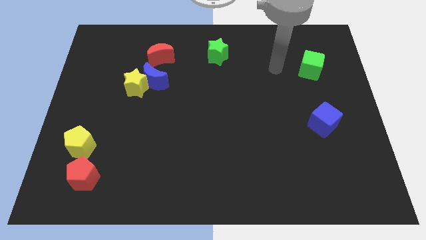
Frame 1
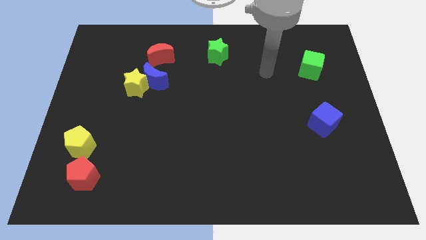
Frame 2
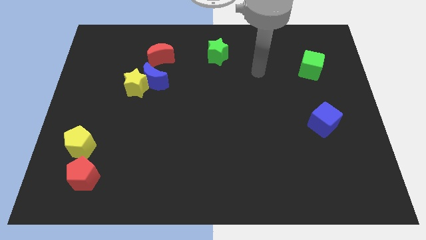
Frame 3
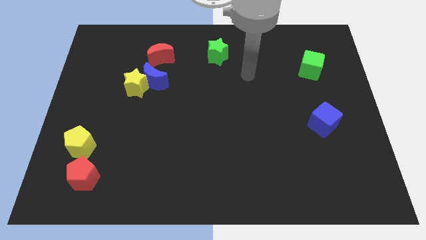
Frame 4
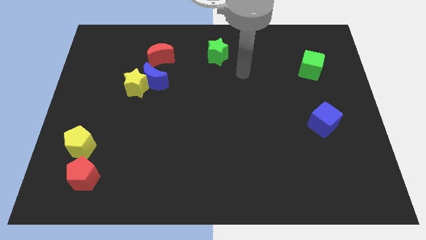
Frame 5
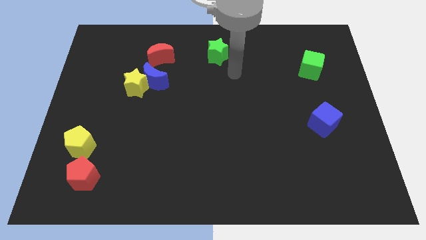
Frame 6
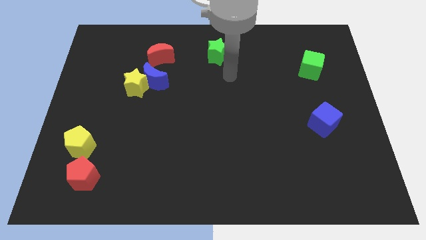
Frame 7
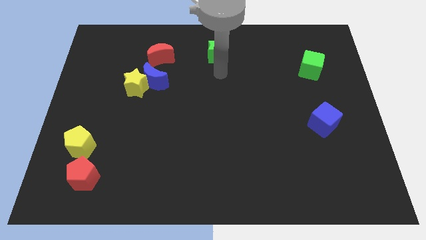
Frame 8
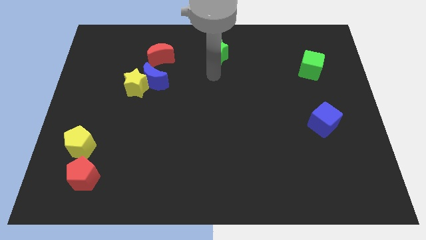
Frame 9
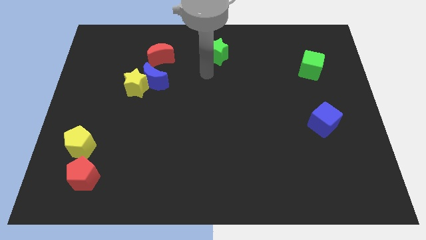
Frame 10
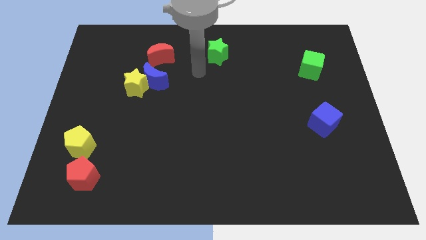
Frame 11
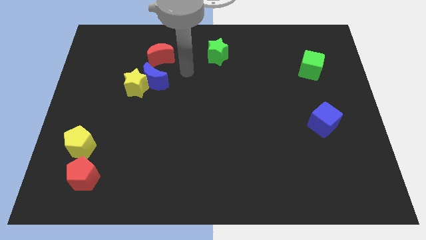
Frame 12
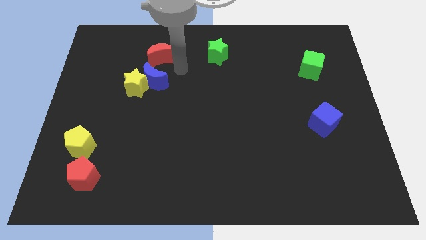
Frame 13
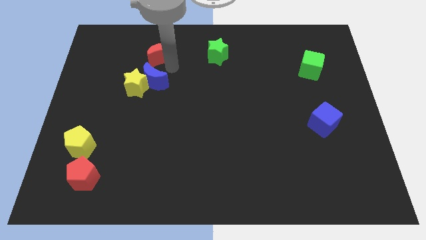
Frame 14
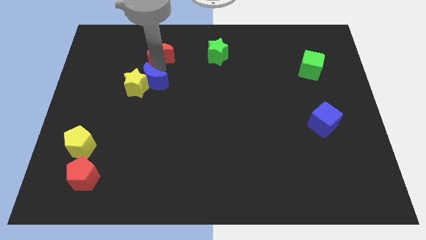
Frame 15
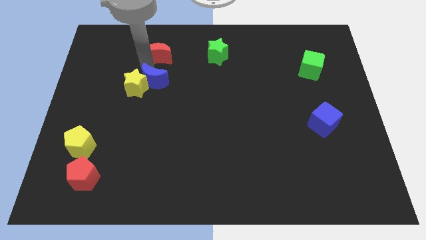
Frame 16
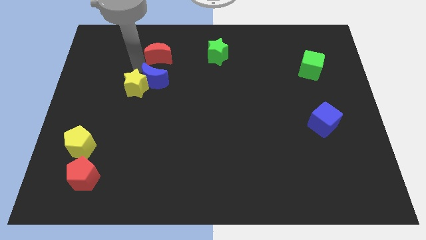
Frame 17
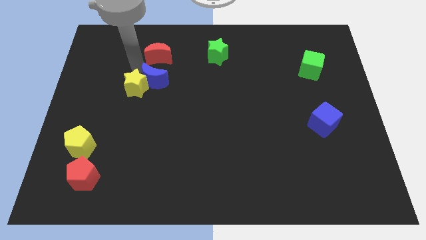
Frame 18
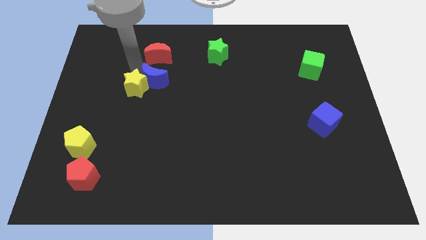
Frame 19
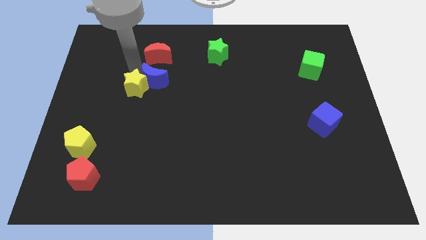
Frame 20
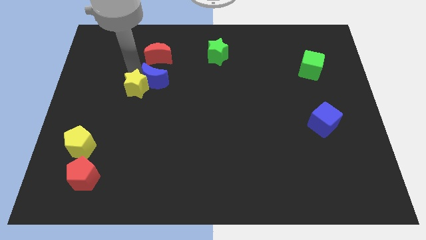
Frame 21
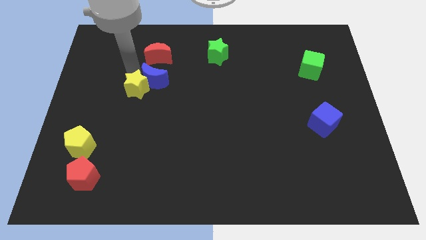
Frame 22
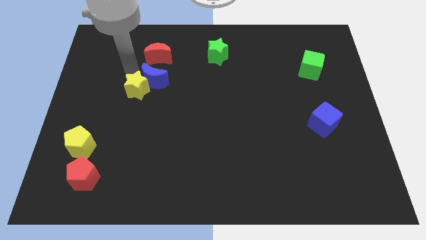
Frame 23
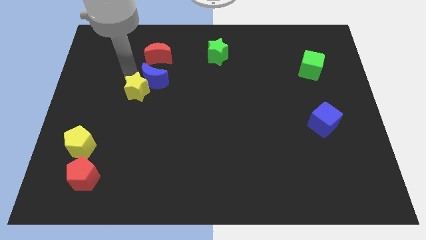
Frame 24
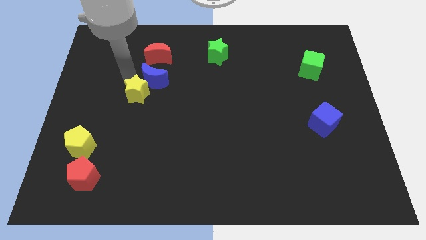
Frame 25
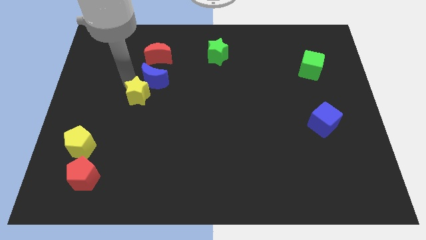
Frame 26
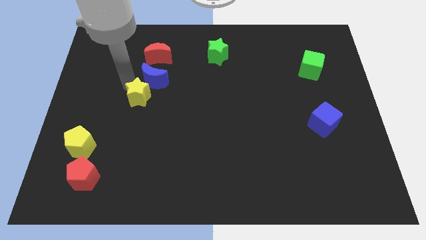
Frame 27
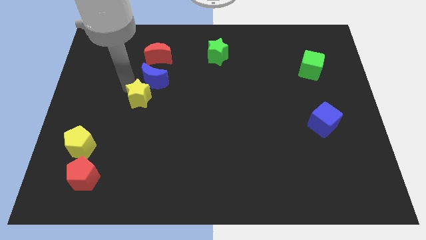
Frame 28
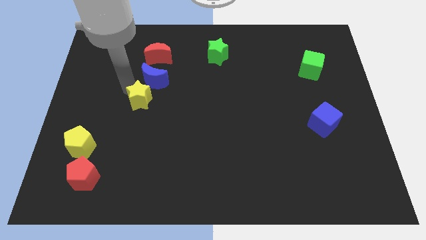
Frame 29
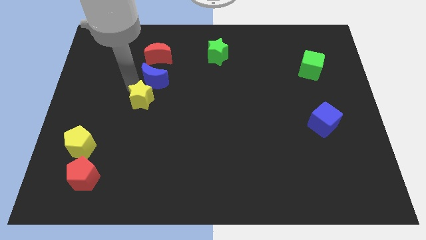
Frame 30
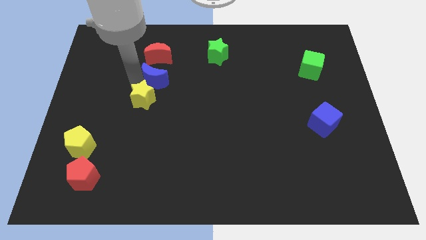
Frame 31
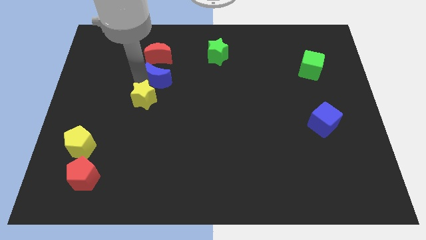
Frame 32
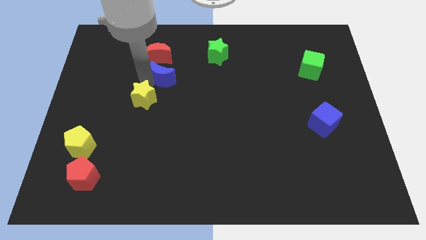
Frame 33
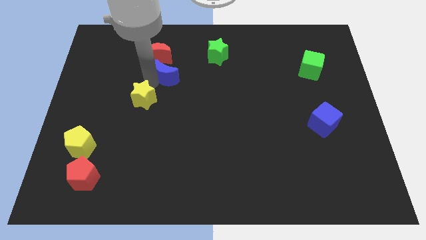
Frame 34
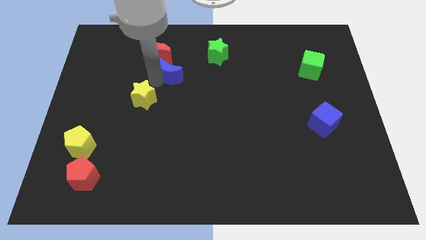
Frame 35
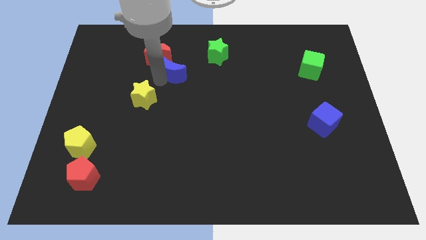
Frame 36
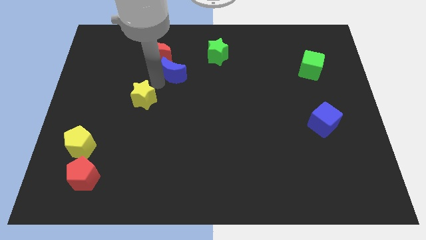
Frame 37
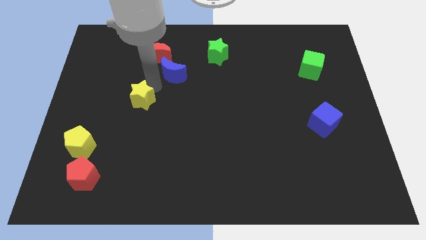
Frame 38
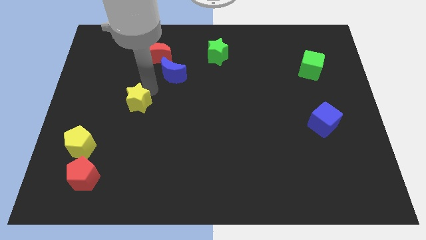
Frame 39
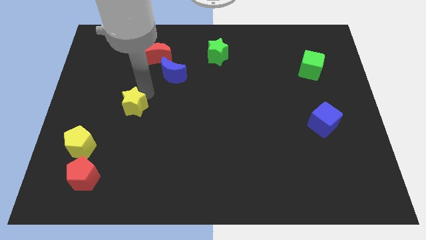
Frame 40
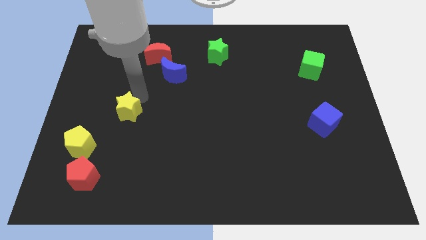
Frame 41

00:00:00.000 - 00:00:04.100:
move the yellow star down slightly

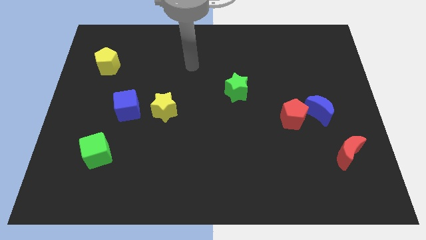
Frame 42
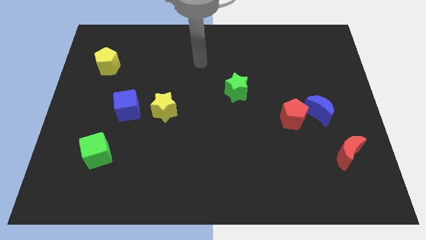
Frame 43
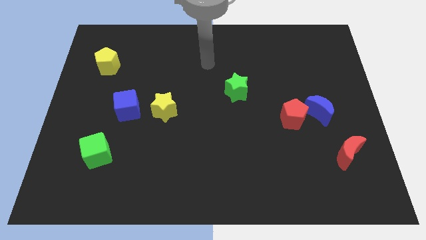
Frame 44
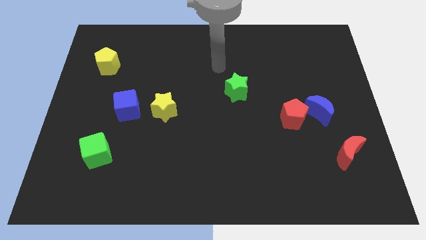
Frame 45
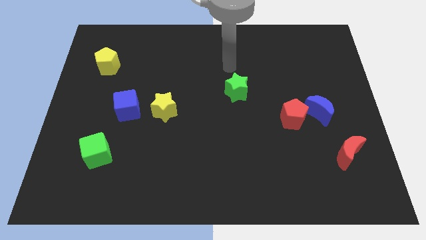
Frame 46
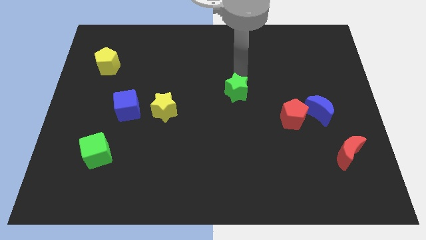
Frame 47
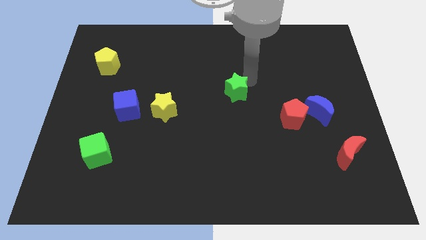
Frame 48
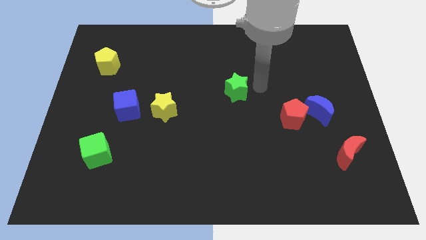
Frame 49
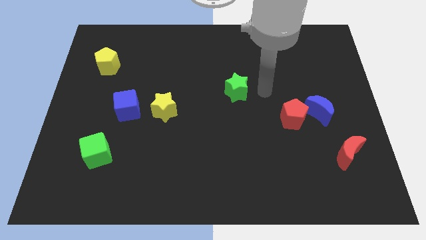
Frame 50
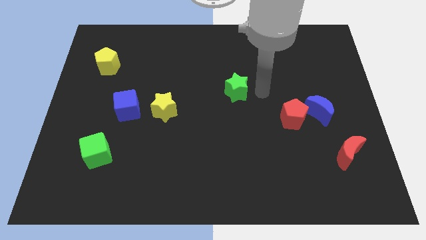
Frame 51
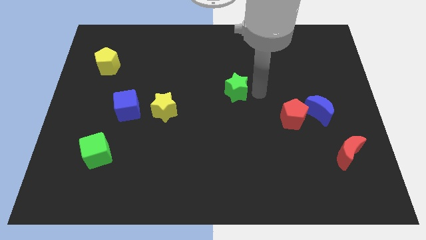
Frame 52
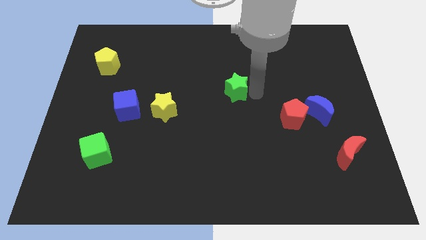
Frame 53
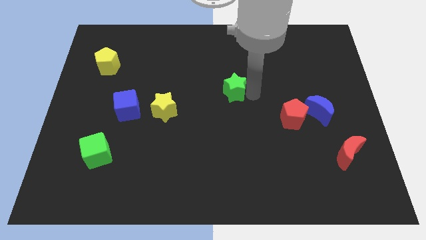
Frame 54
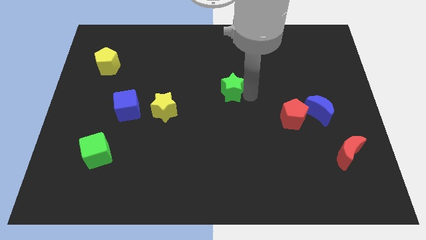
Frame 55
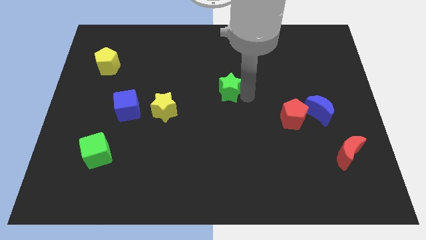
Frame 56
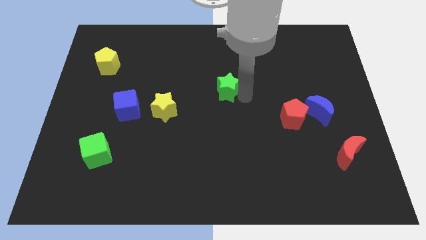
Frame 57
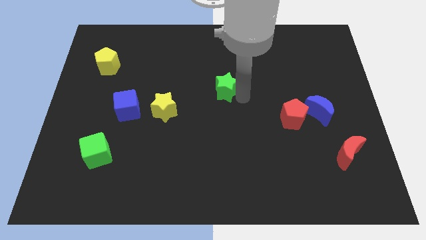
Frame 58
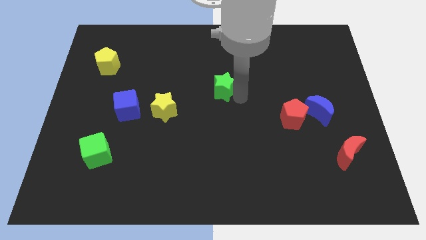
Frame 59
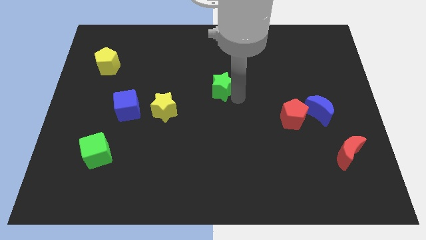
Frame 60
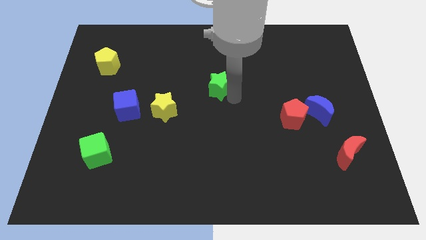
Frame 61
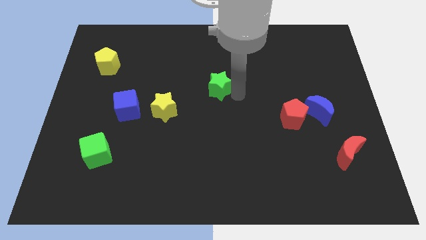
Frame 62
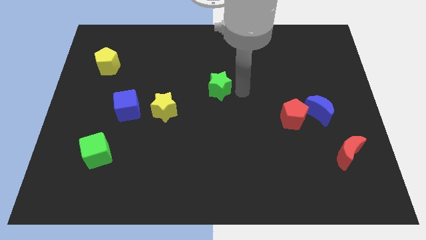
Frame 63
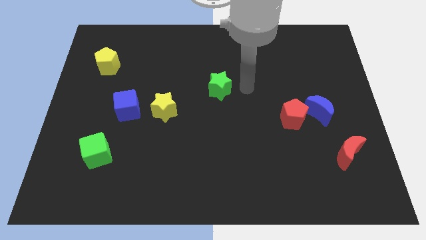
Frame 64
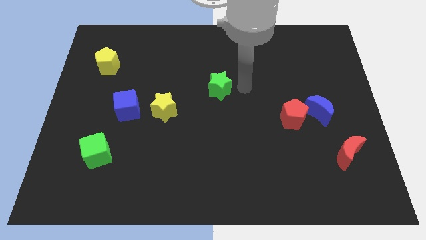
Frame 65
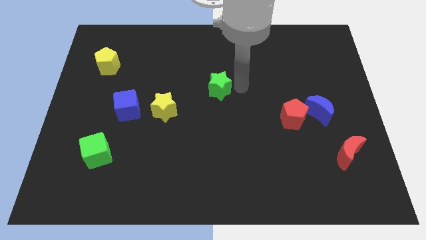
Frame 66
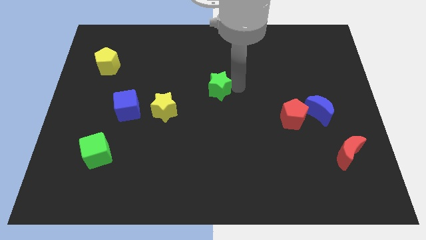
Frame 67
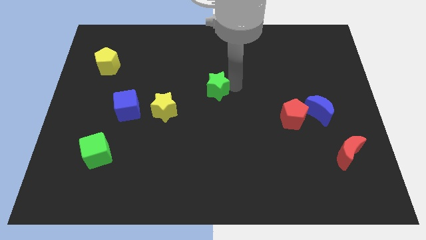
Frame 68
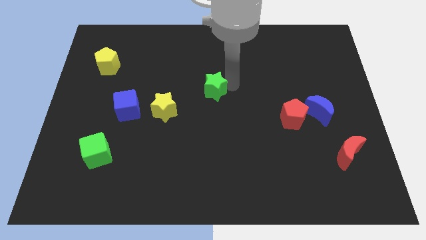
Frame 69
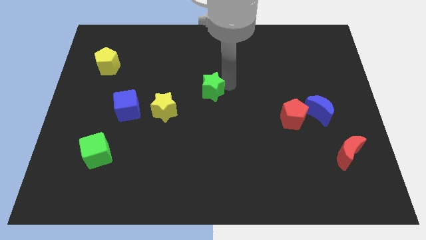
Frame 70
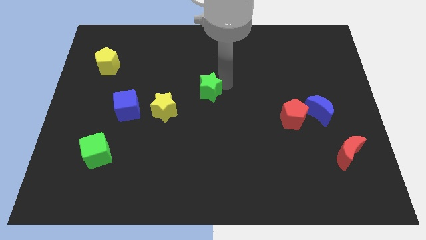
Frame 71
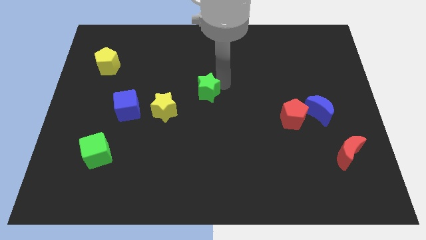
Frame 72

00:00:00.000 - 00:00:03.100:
slide the green star to the left slightly

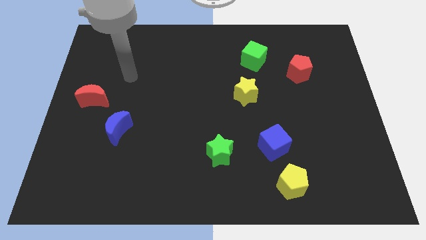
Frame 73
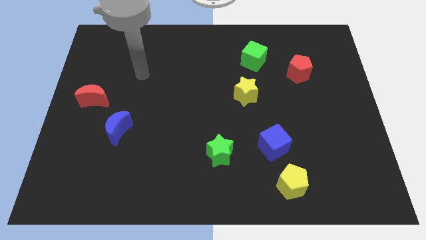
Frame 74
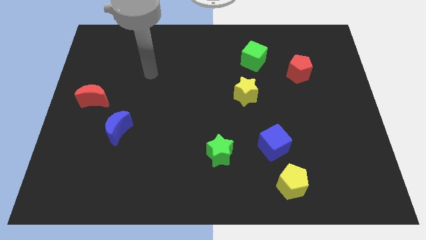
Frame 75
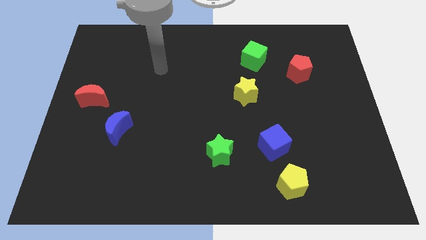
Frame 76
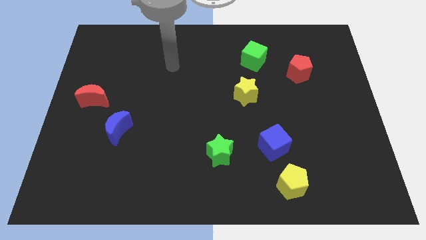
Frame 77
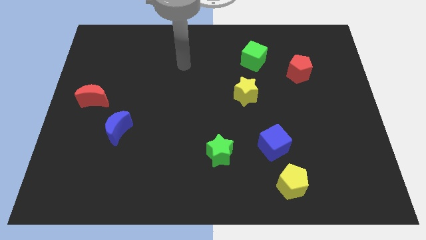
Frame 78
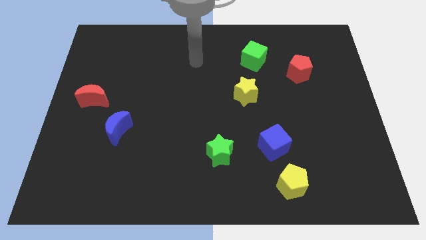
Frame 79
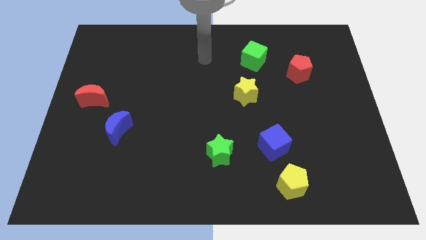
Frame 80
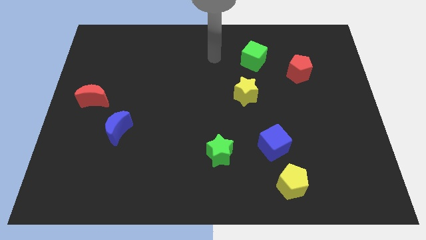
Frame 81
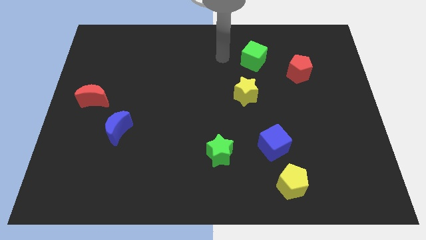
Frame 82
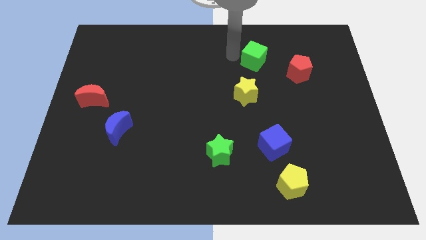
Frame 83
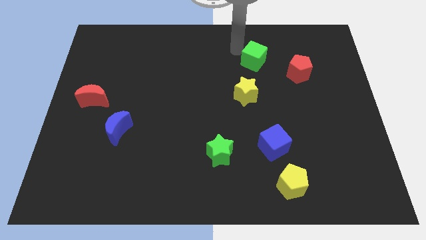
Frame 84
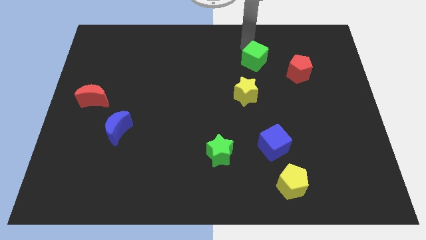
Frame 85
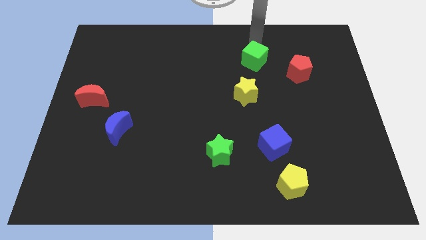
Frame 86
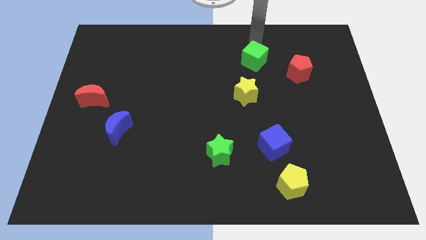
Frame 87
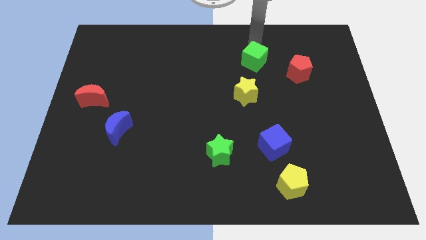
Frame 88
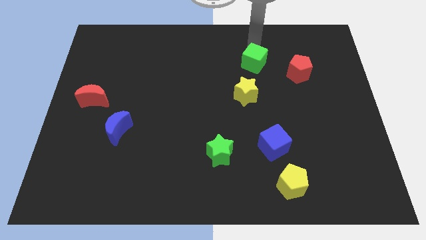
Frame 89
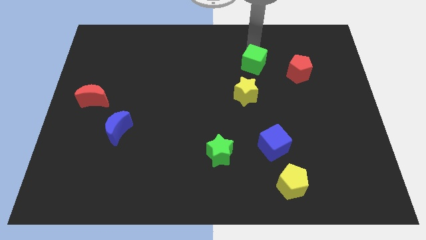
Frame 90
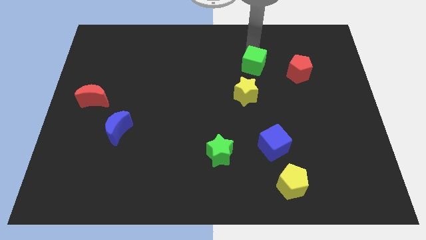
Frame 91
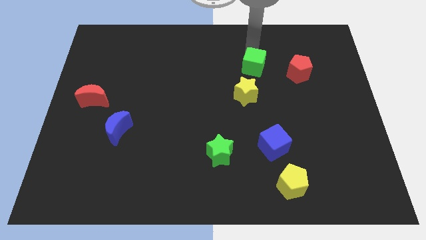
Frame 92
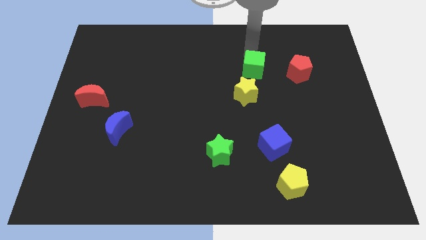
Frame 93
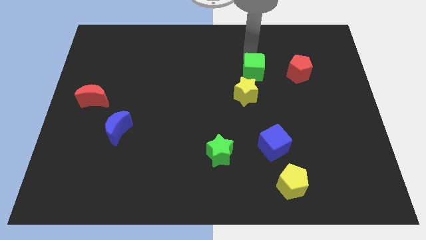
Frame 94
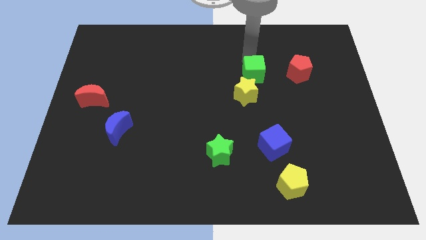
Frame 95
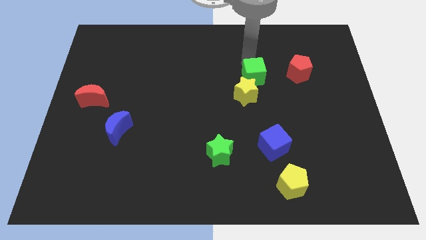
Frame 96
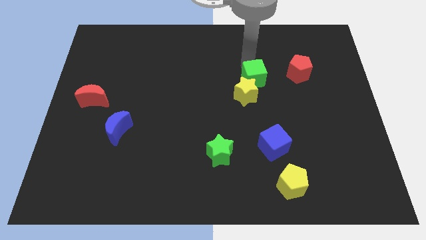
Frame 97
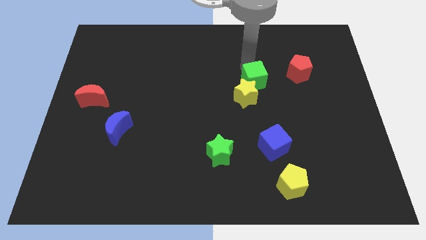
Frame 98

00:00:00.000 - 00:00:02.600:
slightly move the green cube down
